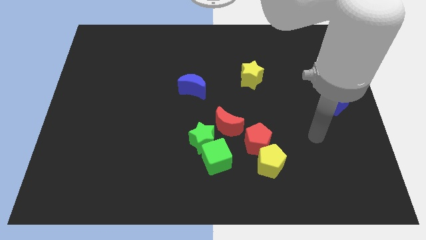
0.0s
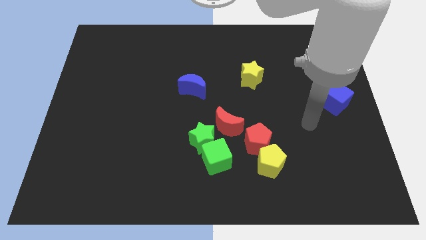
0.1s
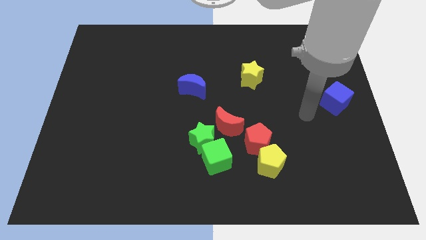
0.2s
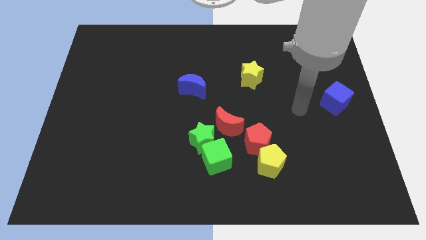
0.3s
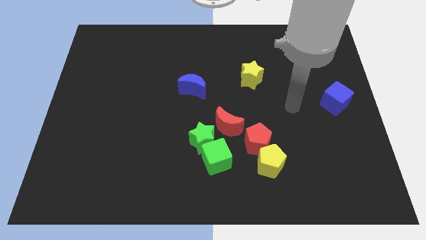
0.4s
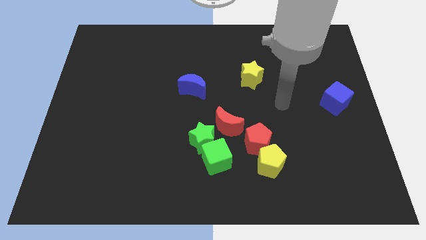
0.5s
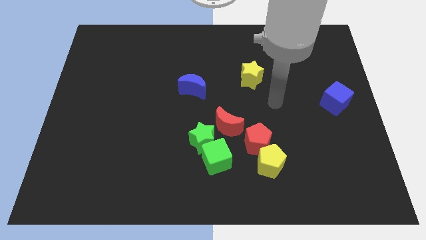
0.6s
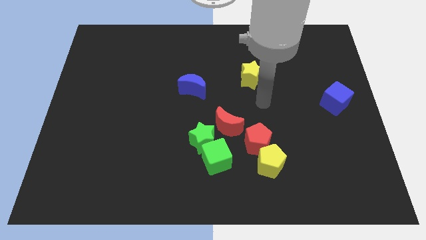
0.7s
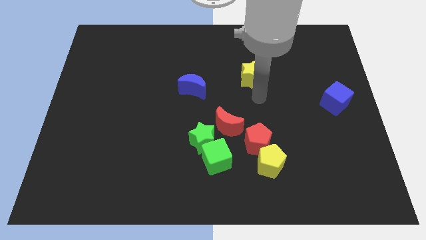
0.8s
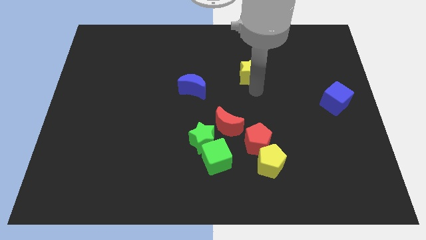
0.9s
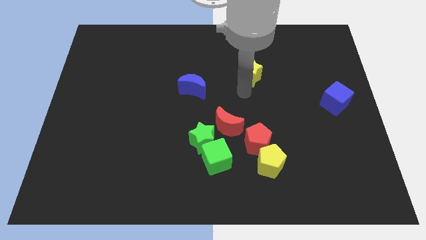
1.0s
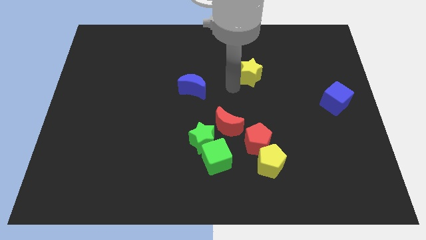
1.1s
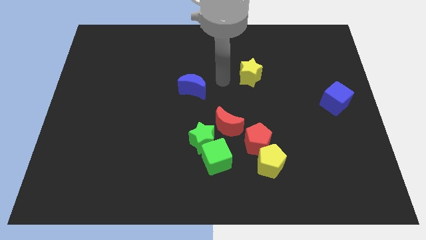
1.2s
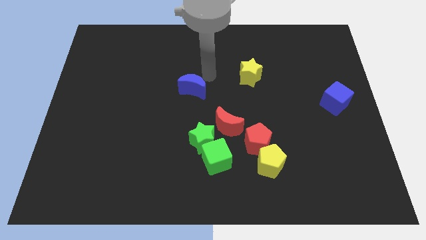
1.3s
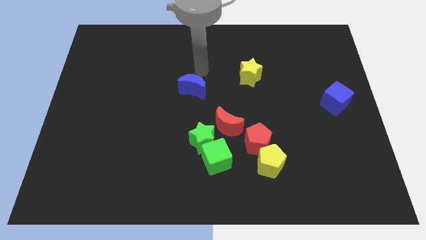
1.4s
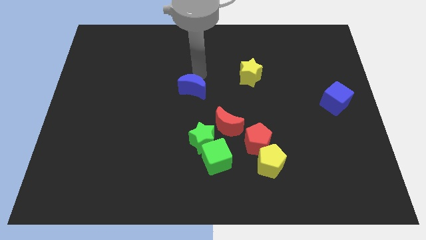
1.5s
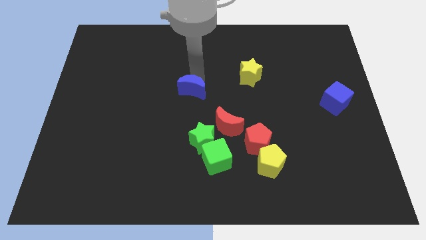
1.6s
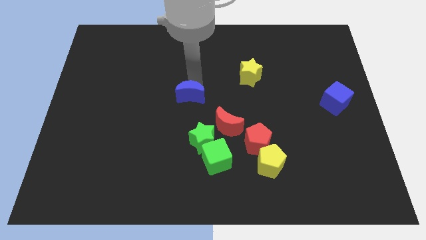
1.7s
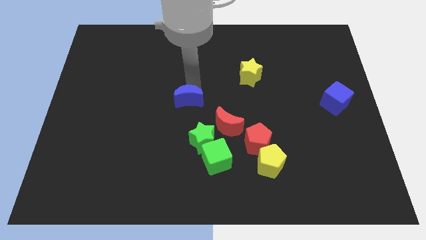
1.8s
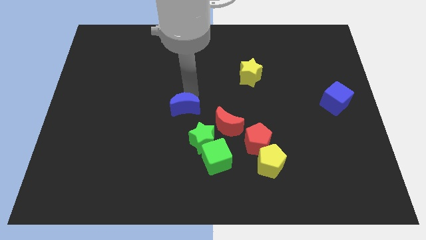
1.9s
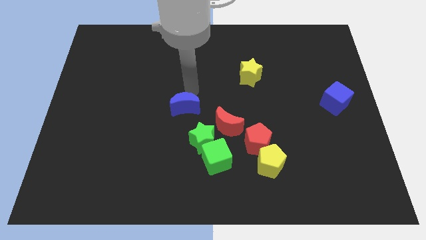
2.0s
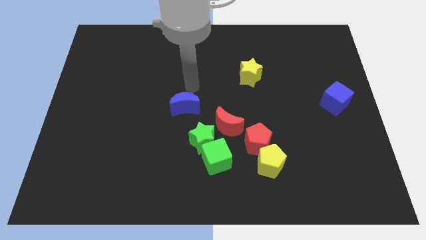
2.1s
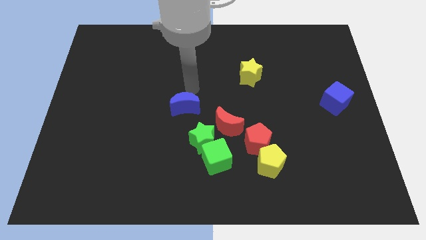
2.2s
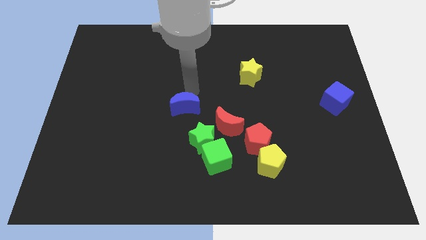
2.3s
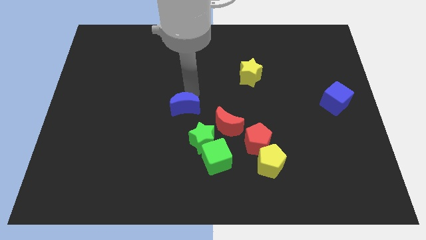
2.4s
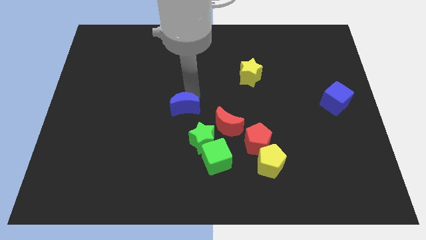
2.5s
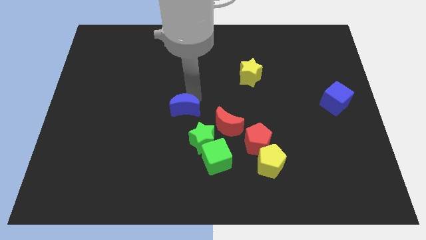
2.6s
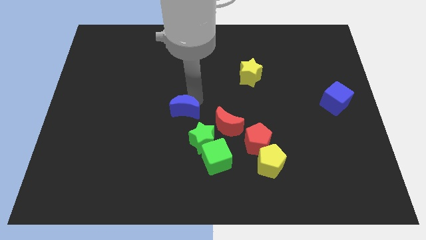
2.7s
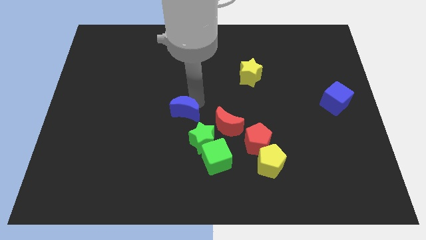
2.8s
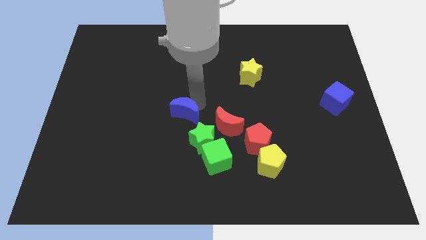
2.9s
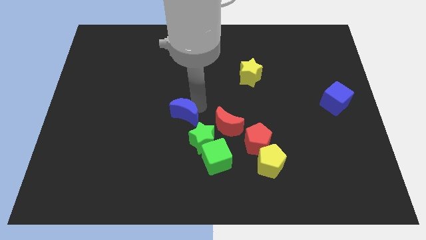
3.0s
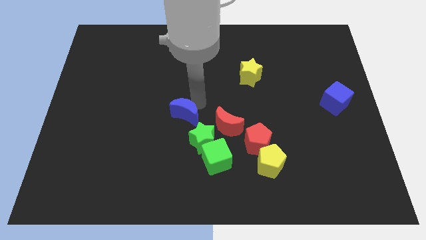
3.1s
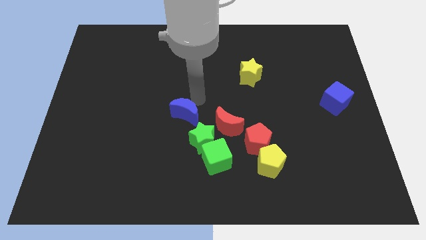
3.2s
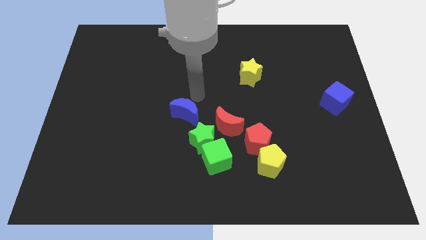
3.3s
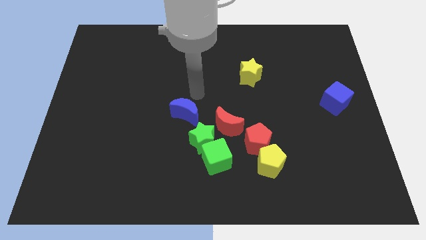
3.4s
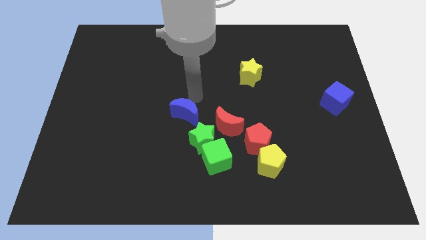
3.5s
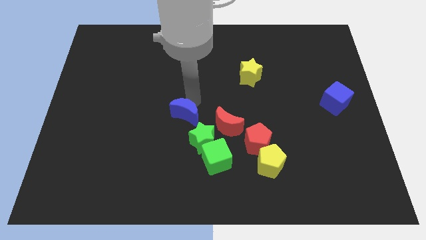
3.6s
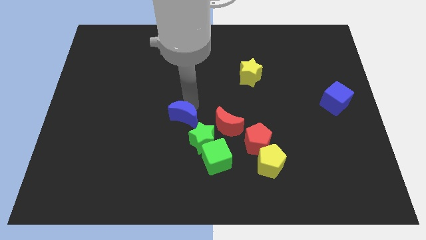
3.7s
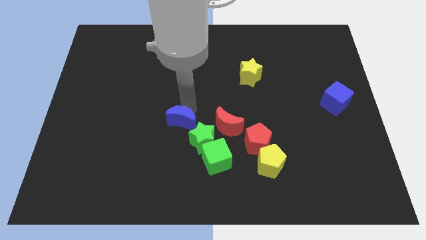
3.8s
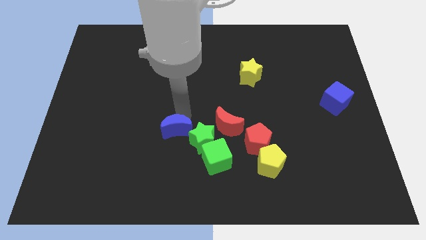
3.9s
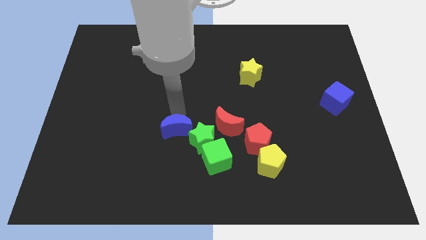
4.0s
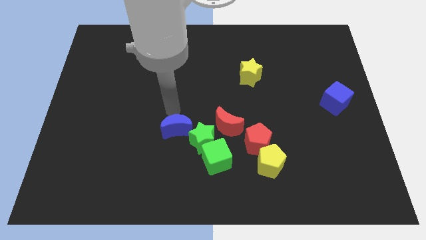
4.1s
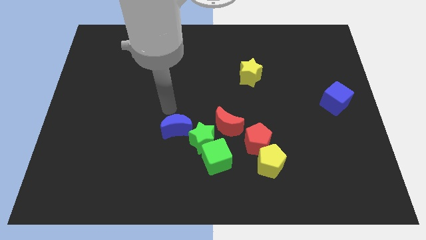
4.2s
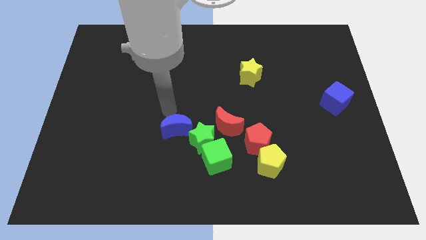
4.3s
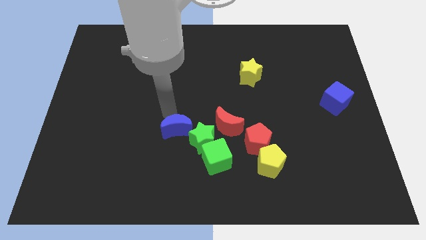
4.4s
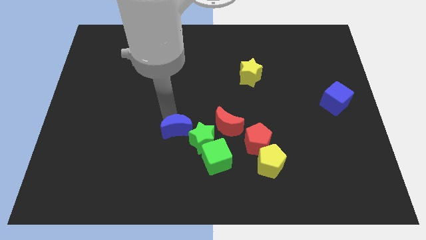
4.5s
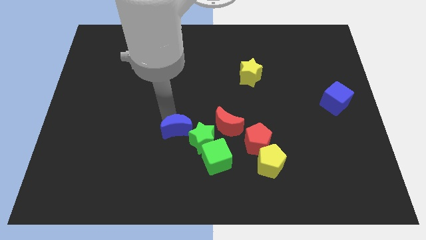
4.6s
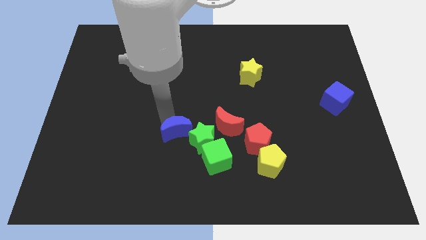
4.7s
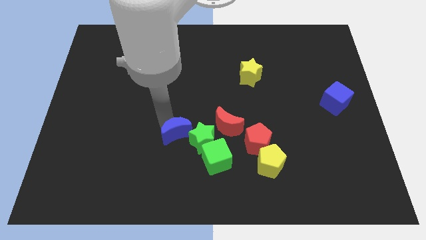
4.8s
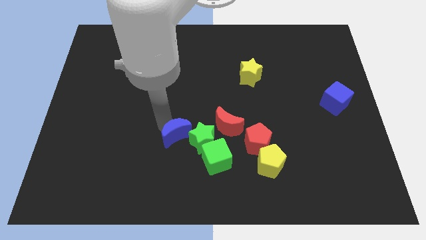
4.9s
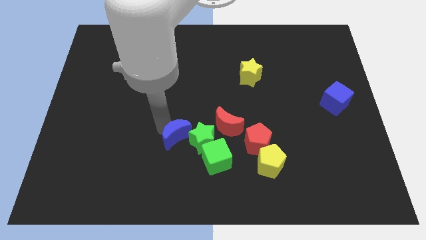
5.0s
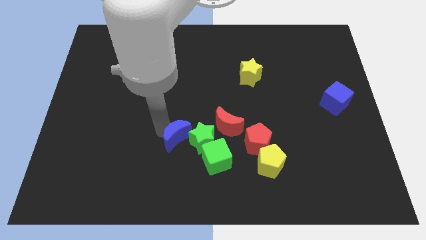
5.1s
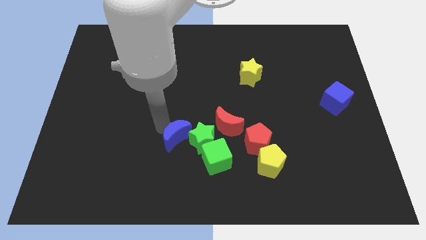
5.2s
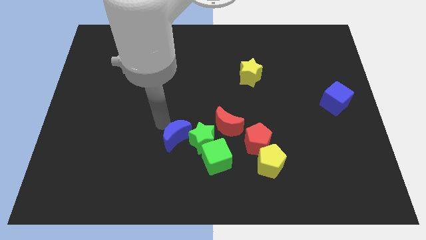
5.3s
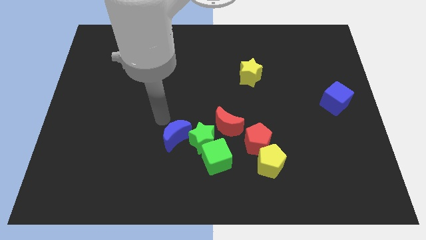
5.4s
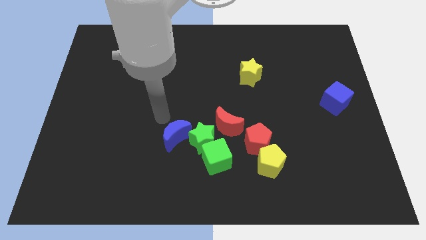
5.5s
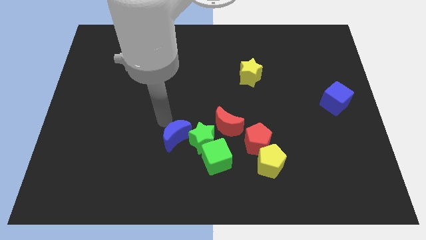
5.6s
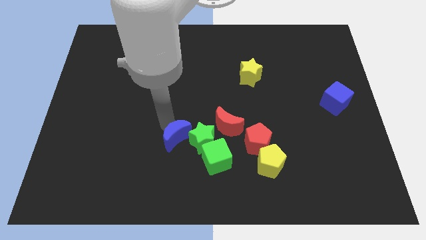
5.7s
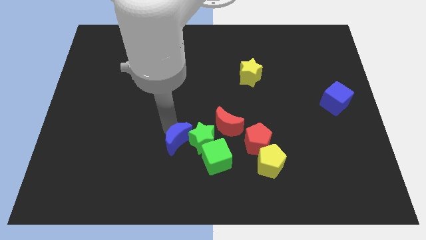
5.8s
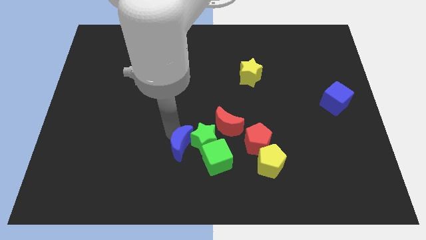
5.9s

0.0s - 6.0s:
move the blue moon to the bottom left side of the red moon

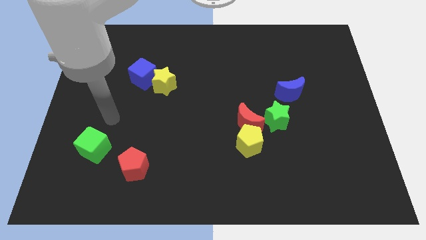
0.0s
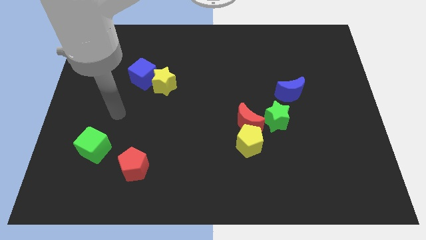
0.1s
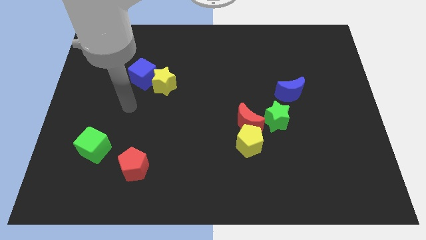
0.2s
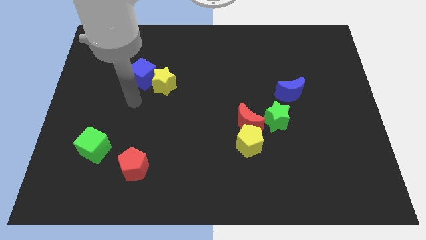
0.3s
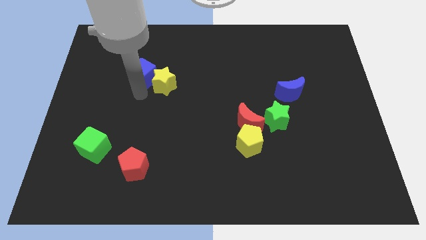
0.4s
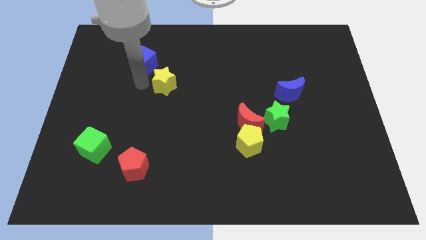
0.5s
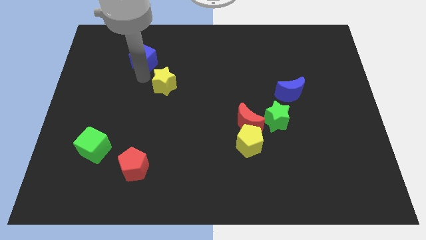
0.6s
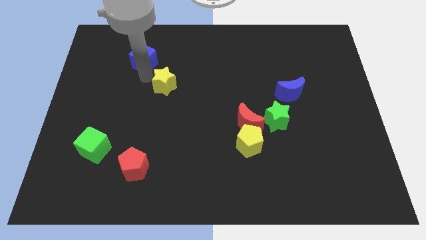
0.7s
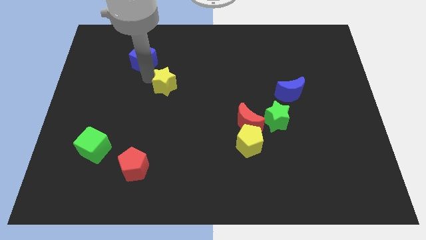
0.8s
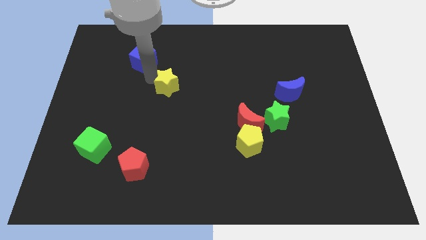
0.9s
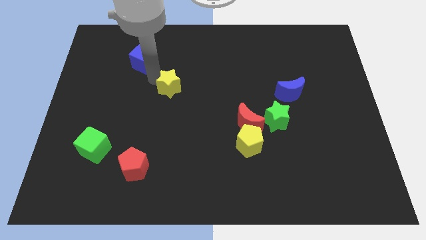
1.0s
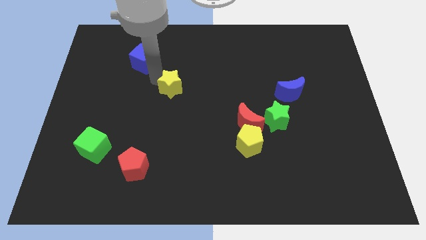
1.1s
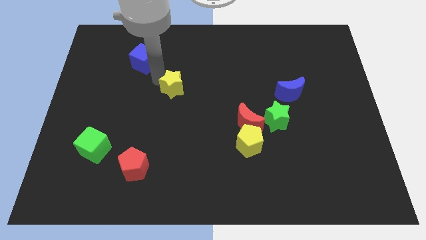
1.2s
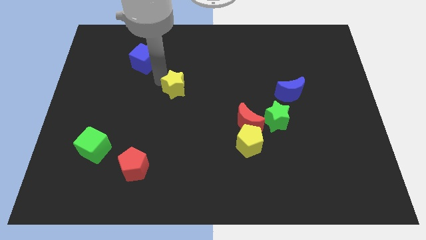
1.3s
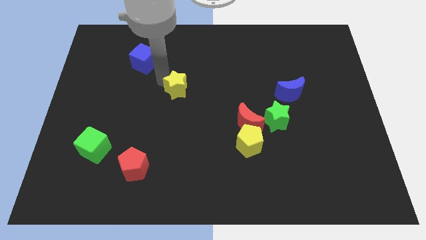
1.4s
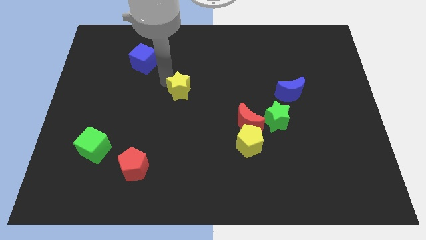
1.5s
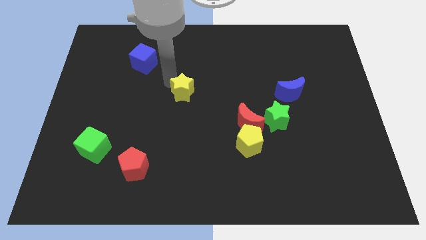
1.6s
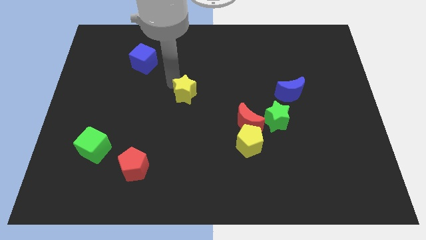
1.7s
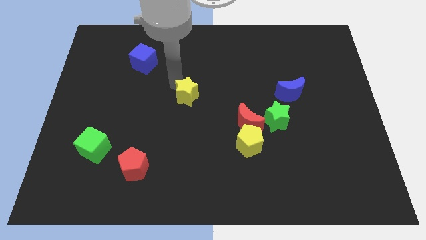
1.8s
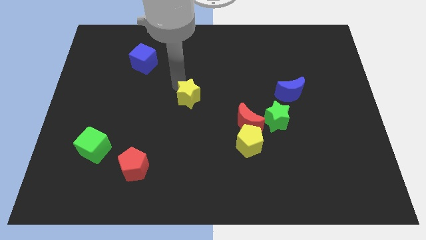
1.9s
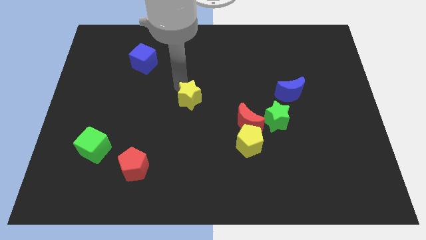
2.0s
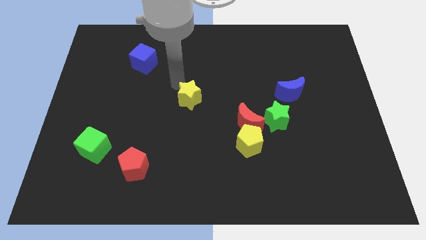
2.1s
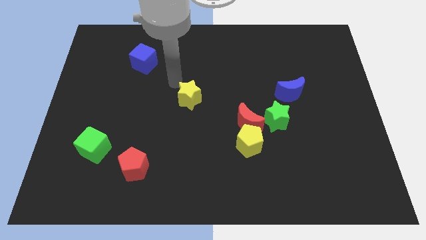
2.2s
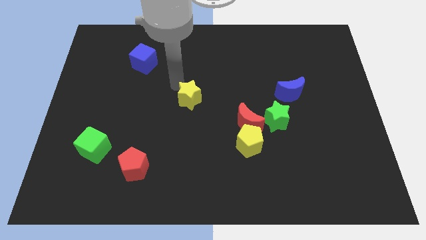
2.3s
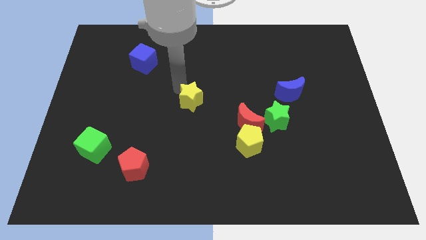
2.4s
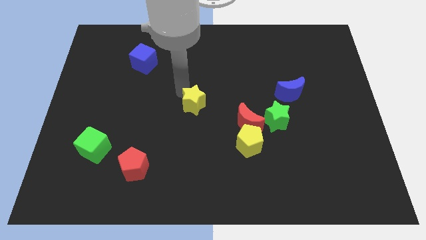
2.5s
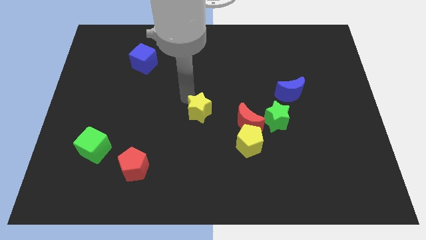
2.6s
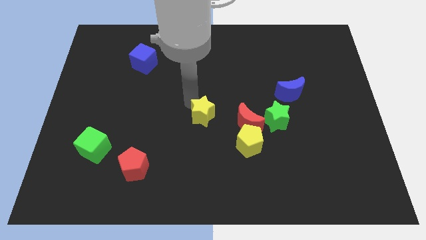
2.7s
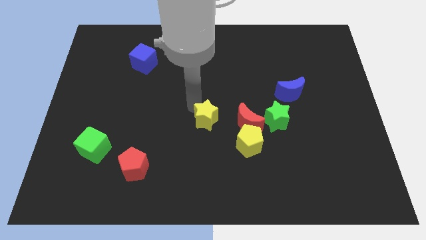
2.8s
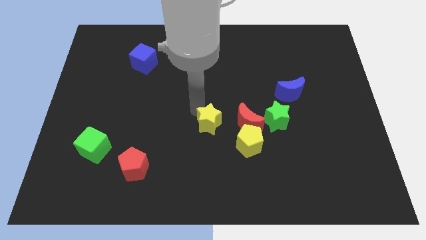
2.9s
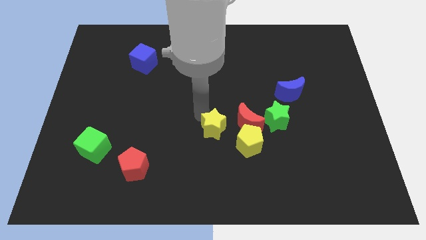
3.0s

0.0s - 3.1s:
slide the yellow star diagonally down and to the left of the red moon
